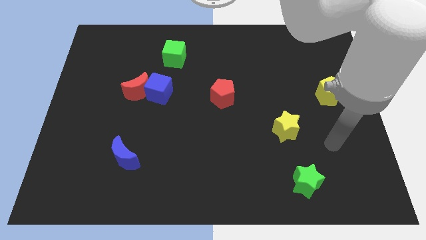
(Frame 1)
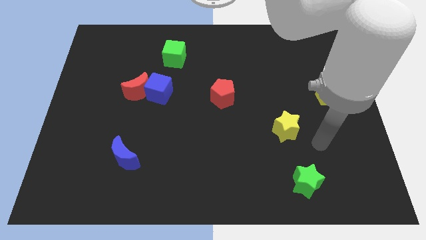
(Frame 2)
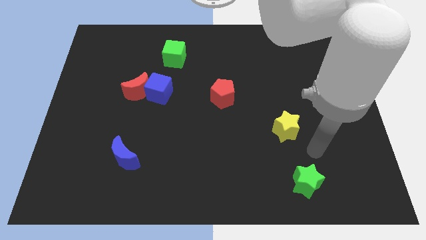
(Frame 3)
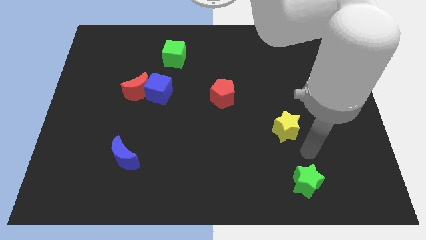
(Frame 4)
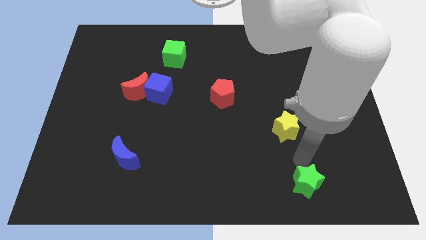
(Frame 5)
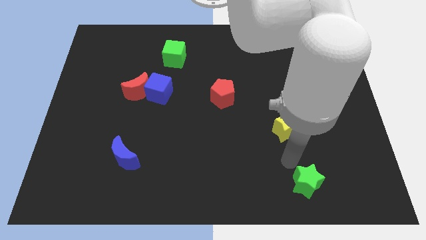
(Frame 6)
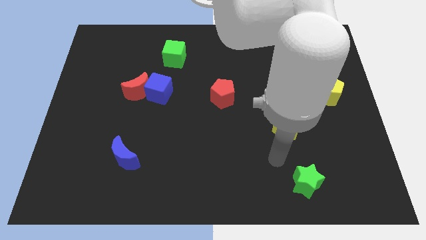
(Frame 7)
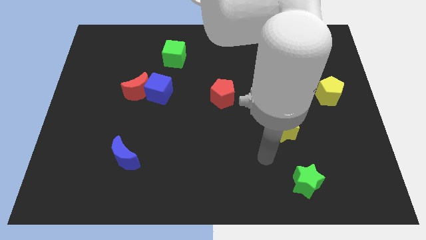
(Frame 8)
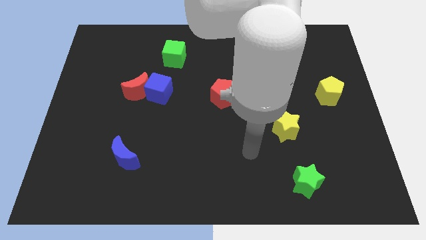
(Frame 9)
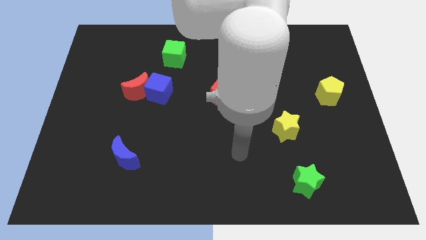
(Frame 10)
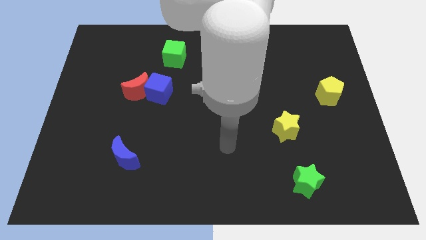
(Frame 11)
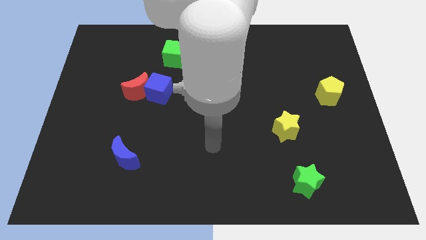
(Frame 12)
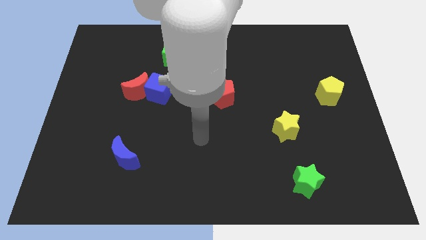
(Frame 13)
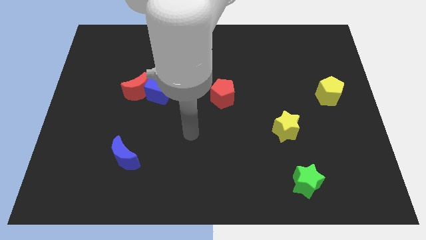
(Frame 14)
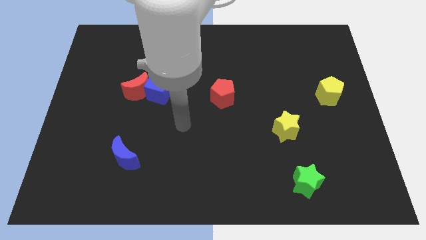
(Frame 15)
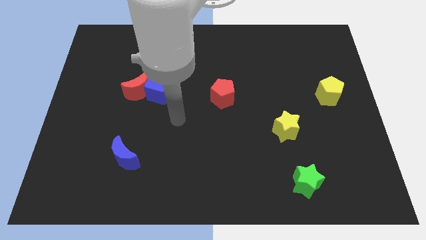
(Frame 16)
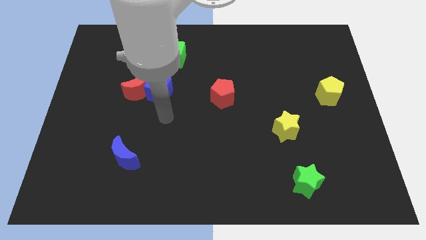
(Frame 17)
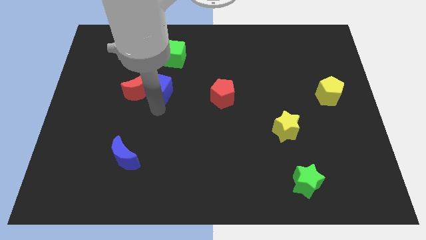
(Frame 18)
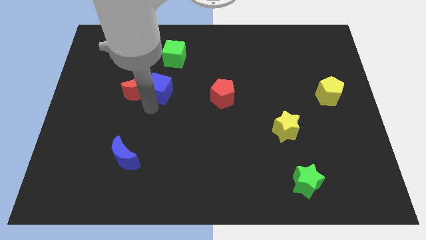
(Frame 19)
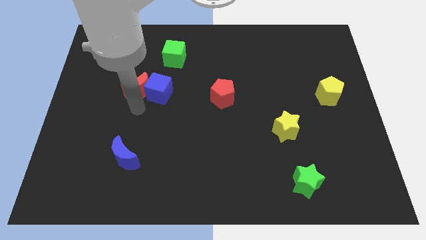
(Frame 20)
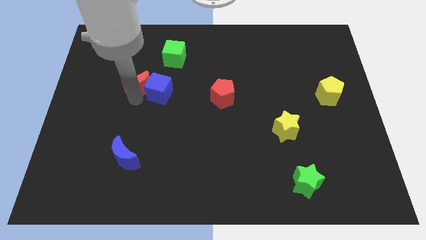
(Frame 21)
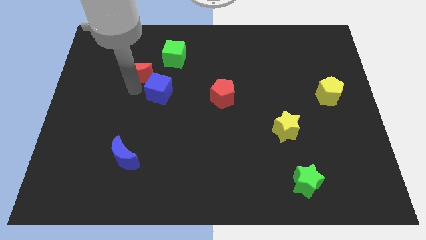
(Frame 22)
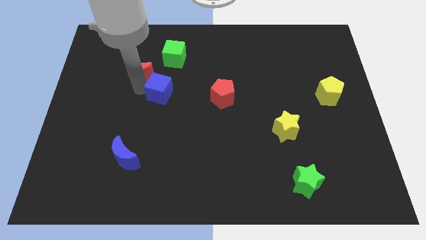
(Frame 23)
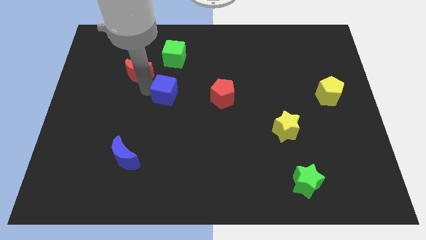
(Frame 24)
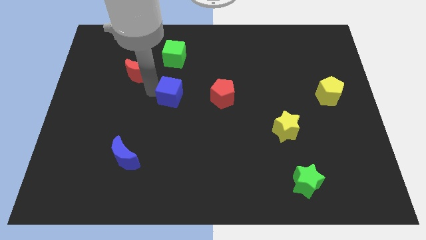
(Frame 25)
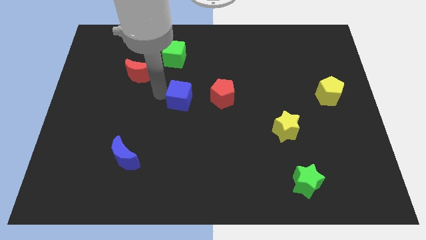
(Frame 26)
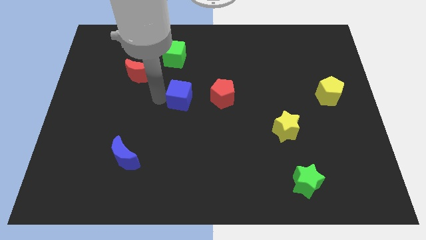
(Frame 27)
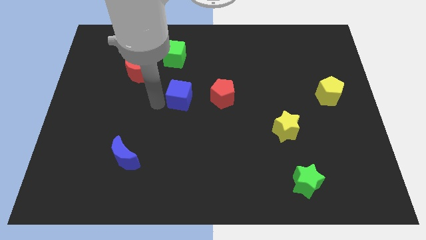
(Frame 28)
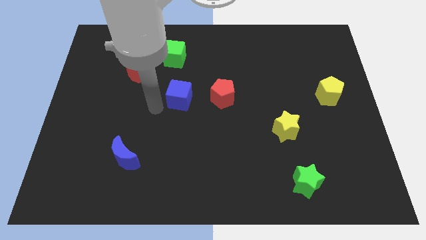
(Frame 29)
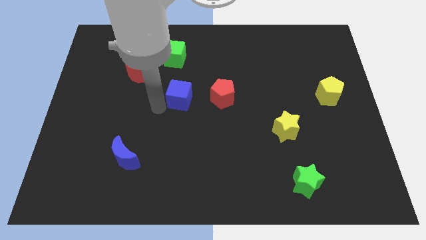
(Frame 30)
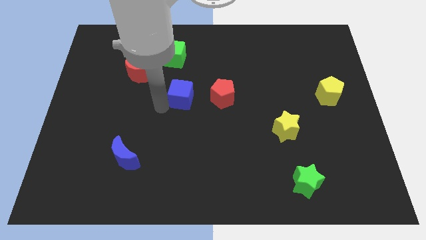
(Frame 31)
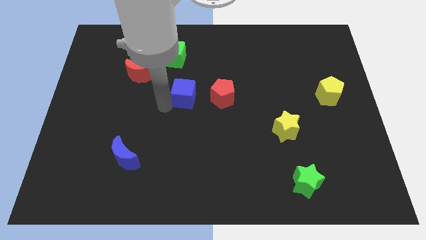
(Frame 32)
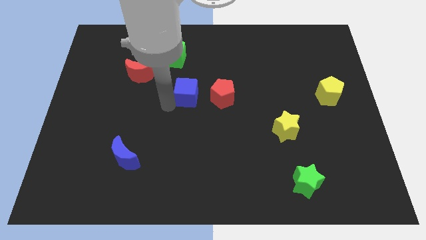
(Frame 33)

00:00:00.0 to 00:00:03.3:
slightly push the blue cube to the right

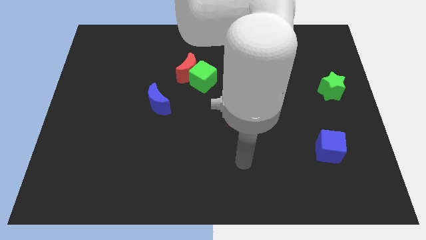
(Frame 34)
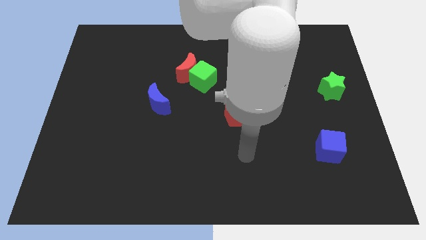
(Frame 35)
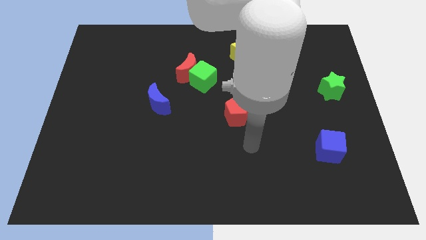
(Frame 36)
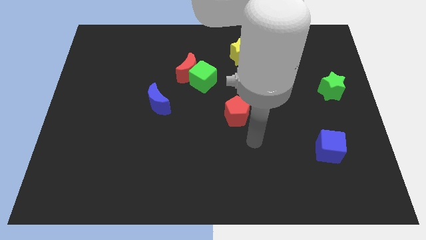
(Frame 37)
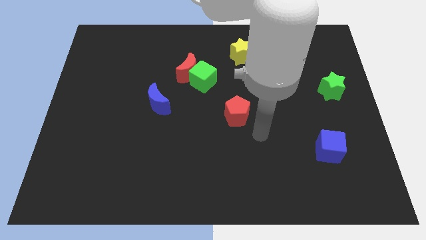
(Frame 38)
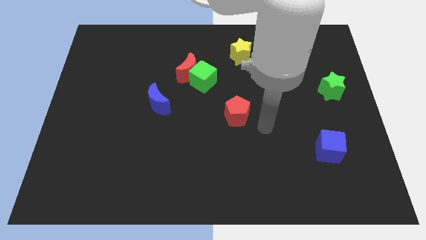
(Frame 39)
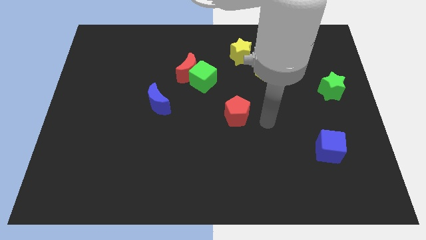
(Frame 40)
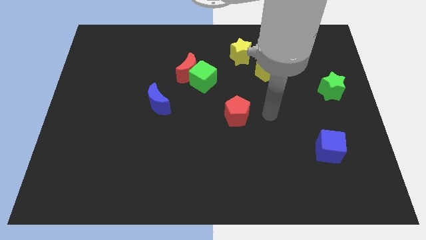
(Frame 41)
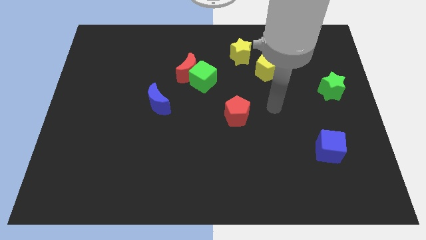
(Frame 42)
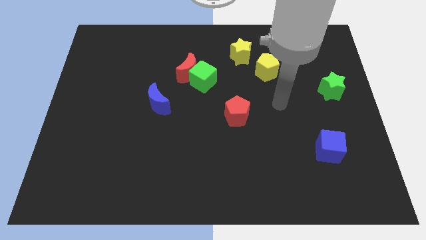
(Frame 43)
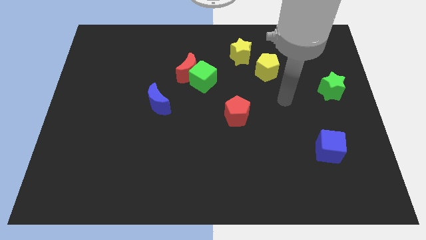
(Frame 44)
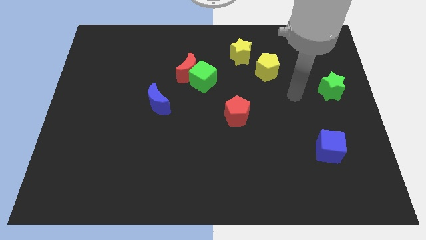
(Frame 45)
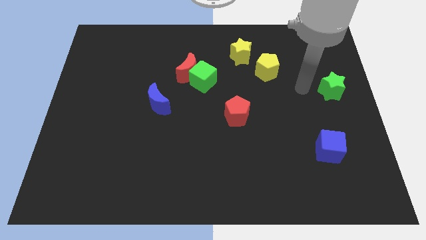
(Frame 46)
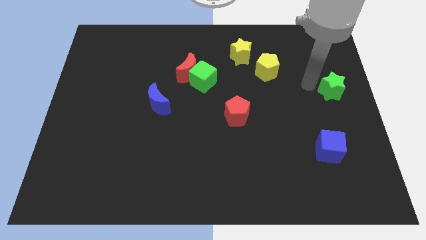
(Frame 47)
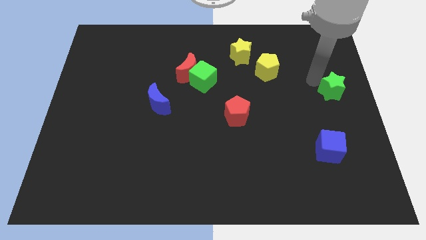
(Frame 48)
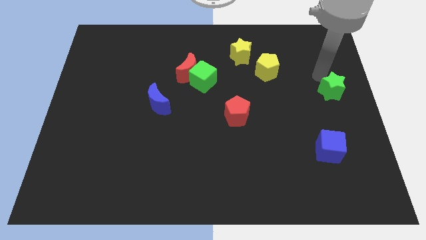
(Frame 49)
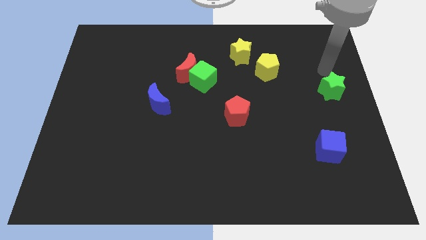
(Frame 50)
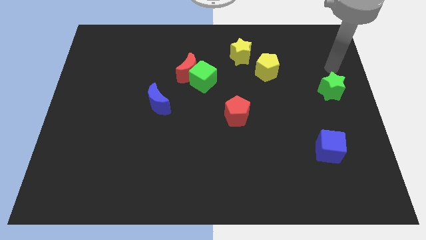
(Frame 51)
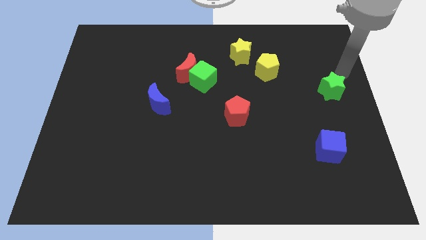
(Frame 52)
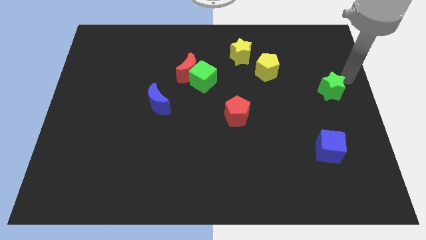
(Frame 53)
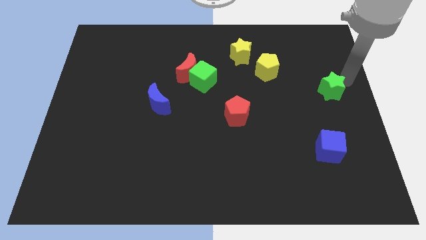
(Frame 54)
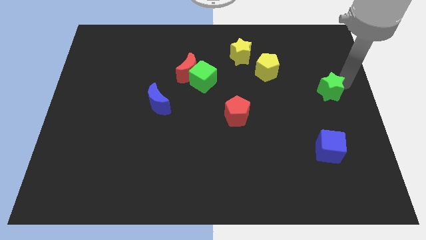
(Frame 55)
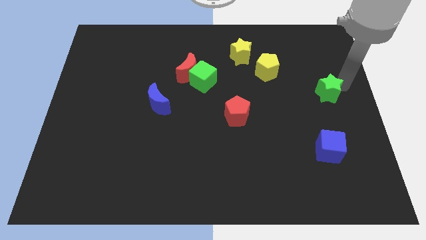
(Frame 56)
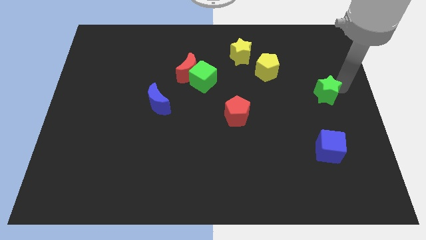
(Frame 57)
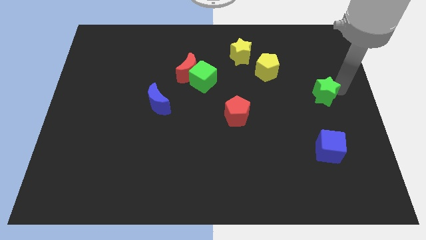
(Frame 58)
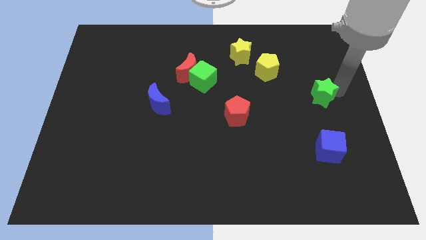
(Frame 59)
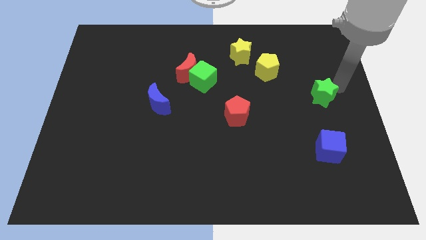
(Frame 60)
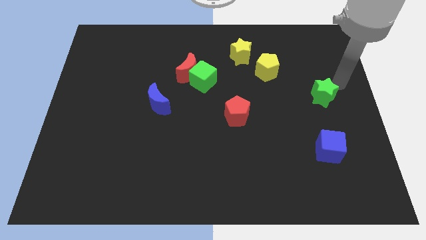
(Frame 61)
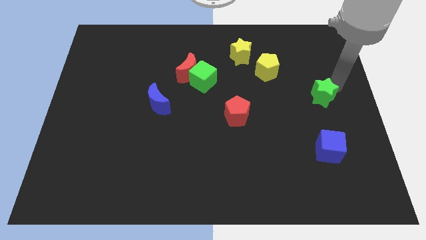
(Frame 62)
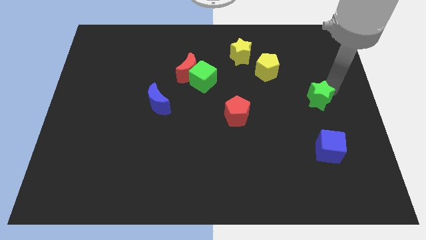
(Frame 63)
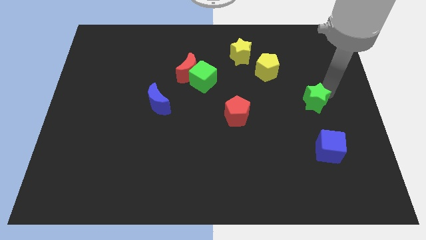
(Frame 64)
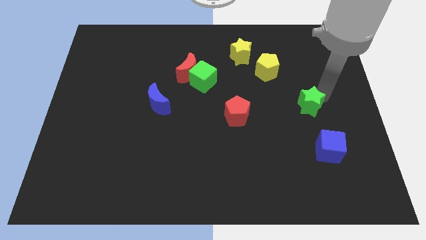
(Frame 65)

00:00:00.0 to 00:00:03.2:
move the green star a bit down and left diagonally

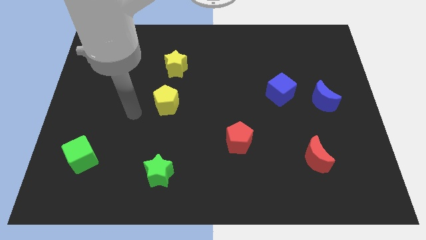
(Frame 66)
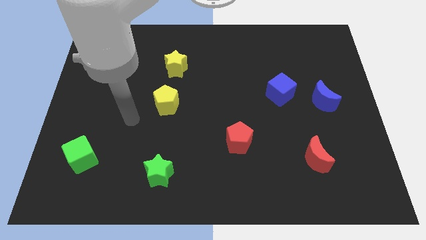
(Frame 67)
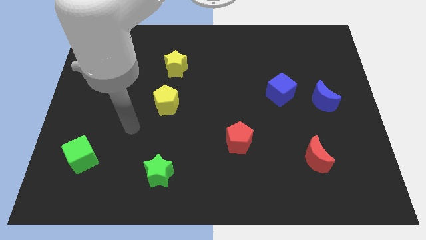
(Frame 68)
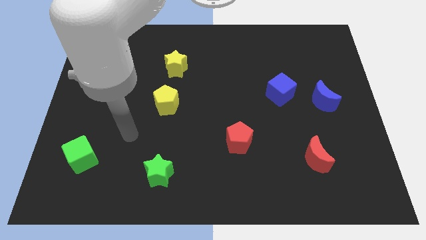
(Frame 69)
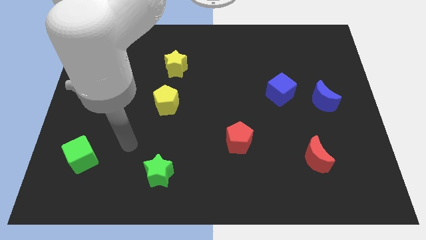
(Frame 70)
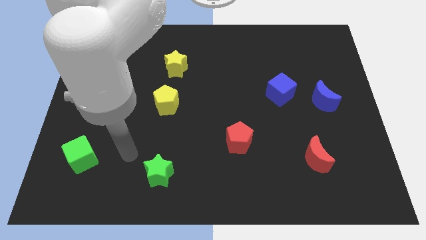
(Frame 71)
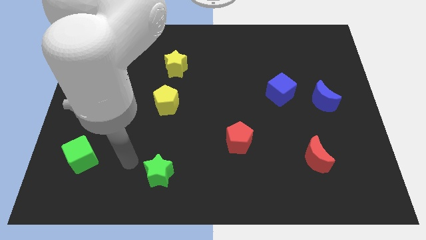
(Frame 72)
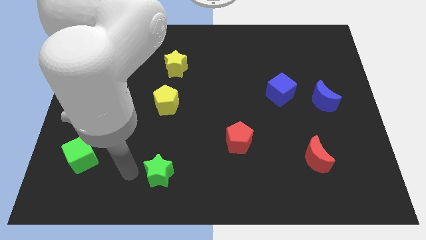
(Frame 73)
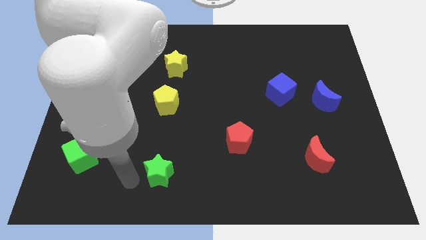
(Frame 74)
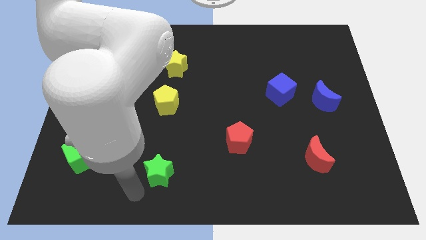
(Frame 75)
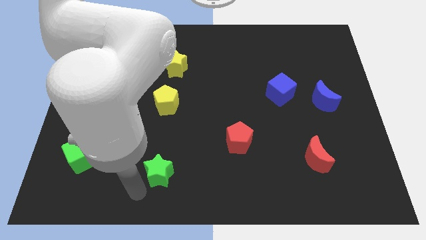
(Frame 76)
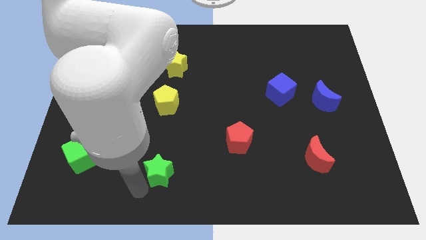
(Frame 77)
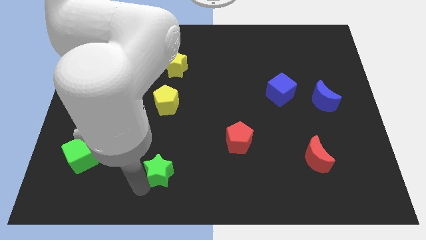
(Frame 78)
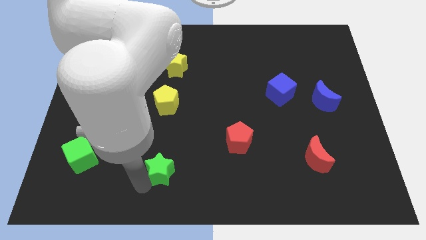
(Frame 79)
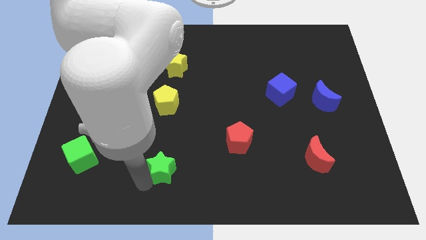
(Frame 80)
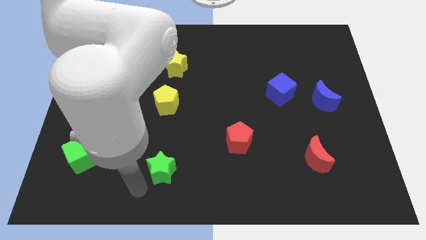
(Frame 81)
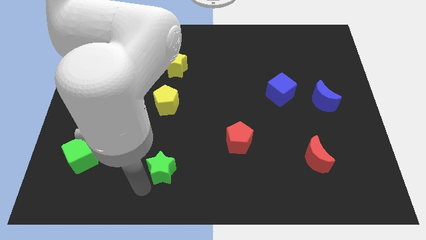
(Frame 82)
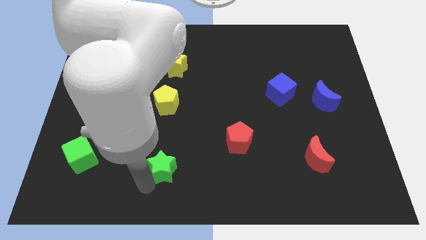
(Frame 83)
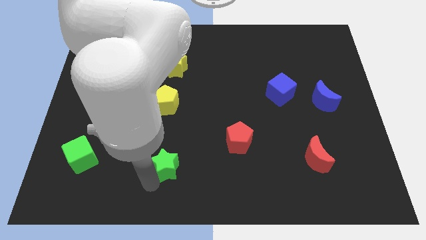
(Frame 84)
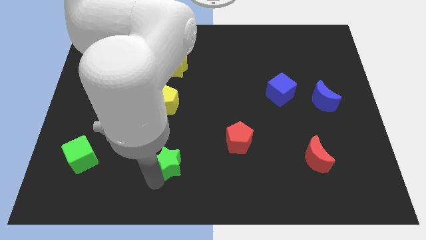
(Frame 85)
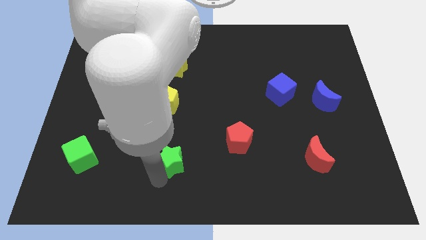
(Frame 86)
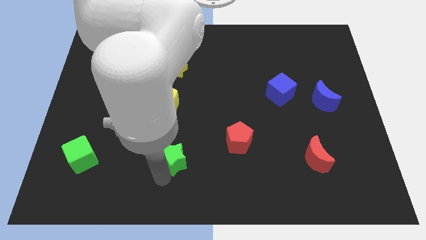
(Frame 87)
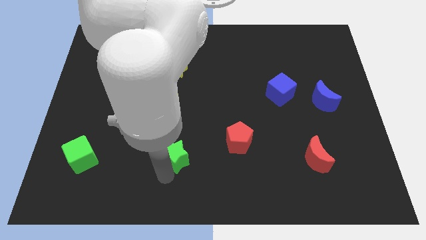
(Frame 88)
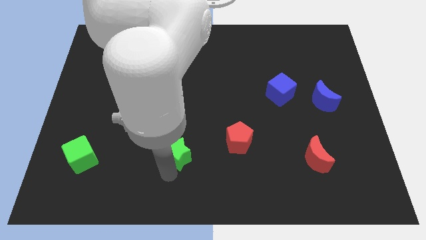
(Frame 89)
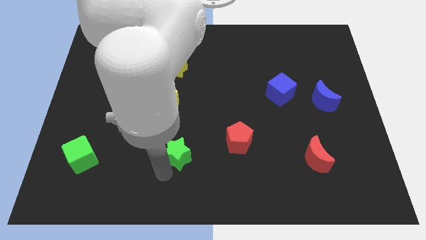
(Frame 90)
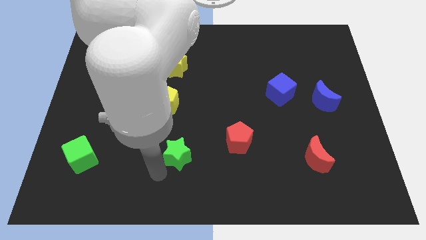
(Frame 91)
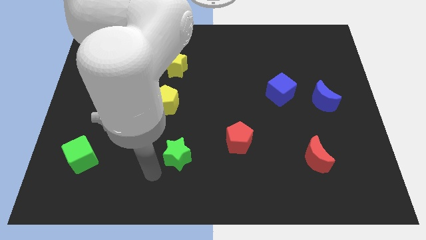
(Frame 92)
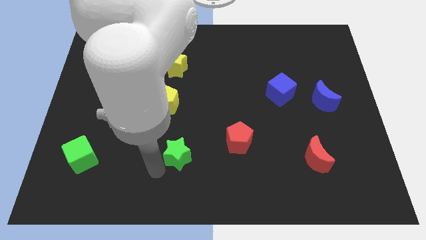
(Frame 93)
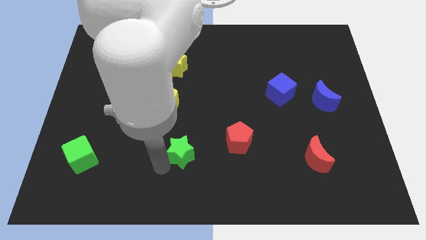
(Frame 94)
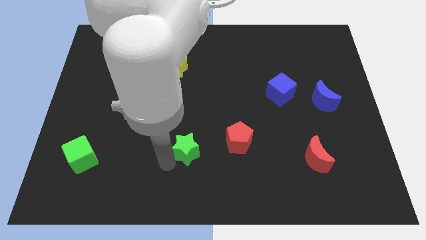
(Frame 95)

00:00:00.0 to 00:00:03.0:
slightly slide the green star diagonally upwards and to the right
